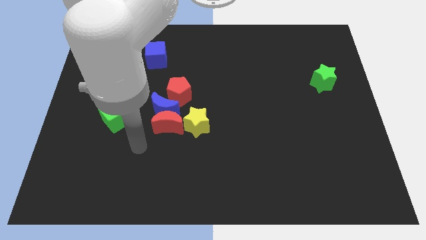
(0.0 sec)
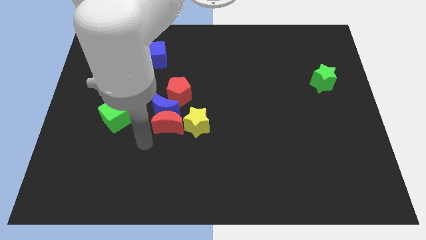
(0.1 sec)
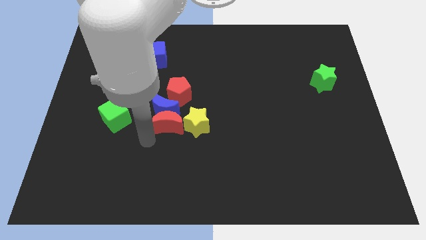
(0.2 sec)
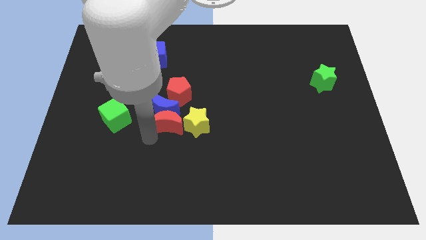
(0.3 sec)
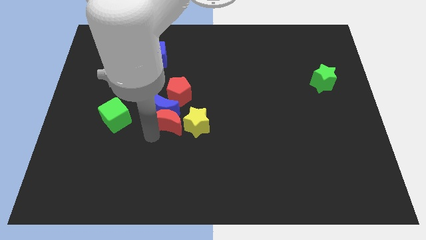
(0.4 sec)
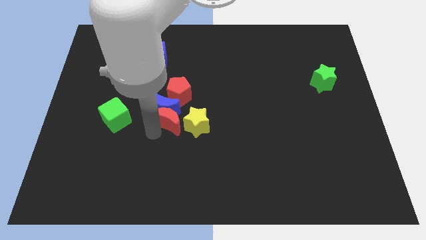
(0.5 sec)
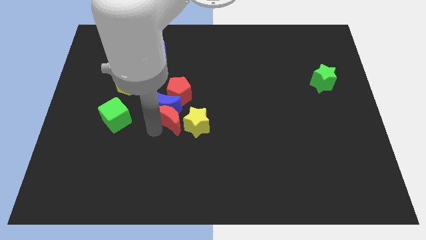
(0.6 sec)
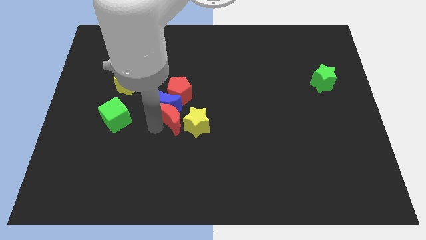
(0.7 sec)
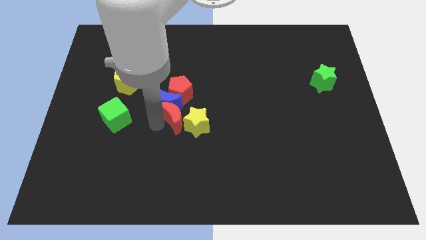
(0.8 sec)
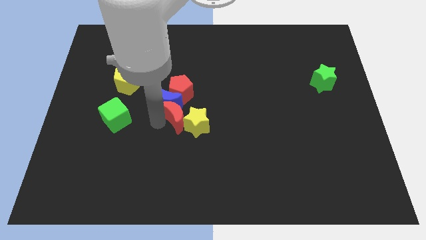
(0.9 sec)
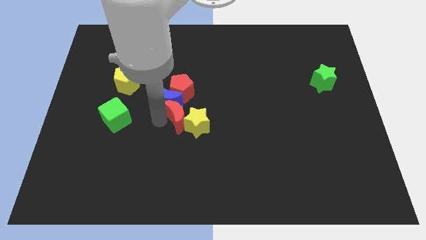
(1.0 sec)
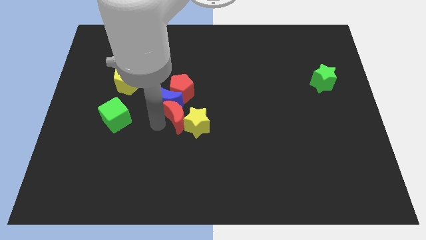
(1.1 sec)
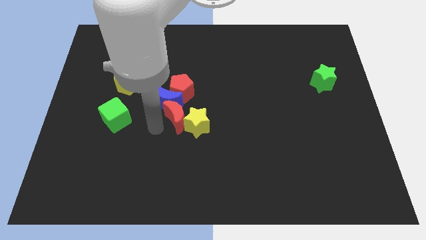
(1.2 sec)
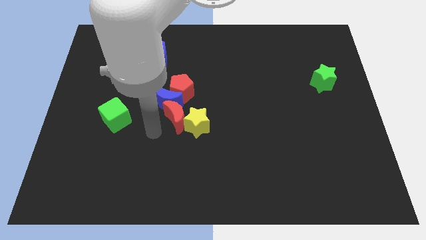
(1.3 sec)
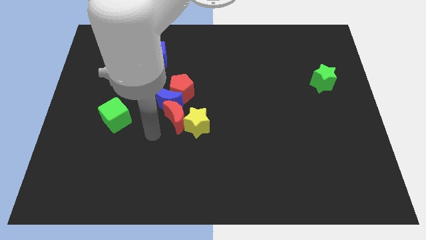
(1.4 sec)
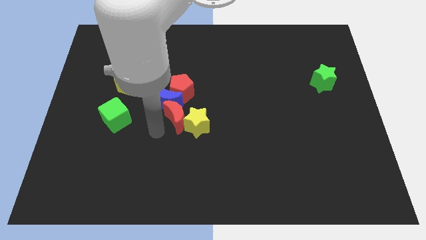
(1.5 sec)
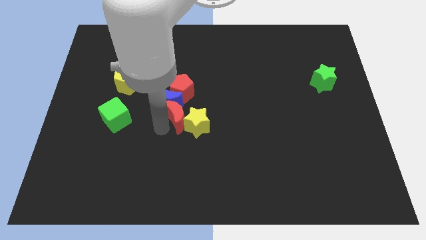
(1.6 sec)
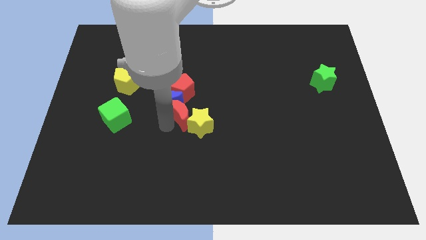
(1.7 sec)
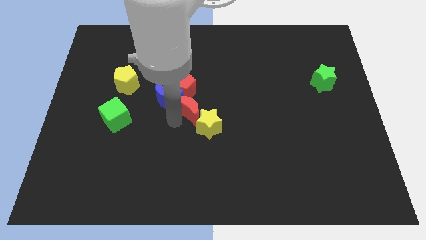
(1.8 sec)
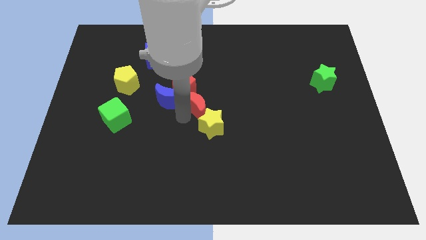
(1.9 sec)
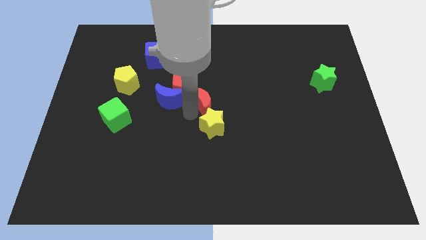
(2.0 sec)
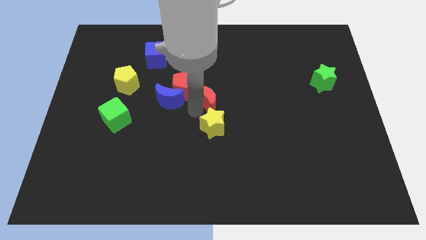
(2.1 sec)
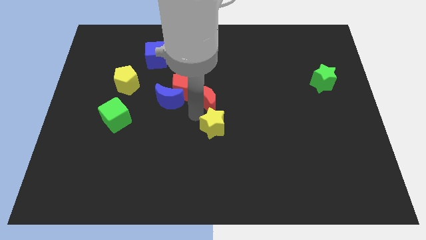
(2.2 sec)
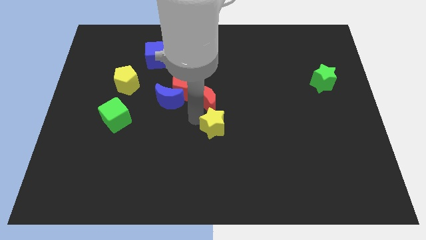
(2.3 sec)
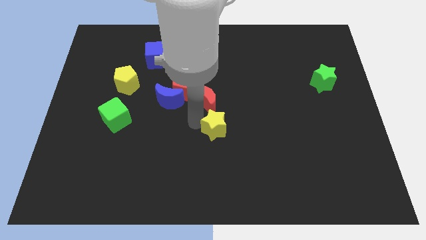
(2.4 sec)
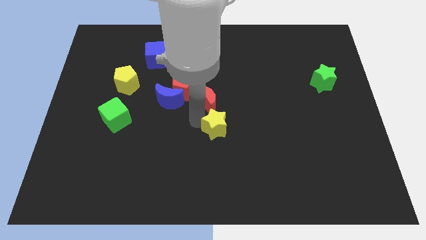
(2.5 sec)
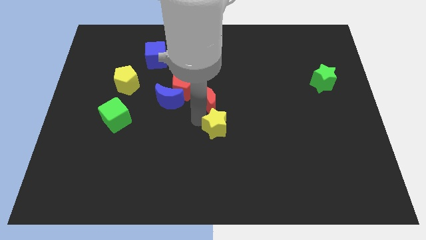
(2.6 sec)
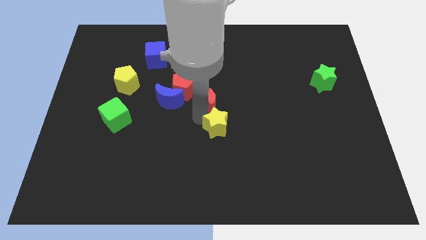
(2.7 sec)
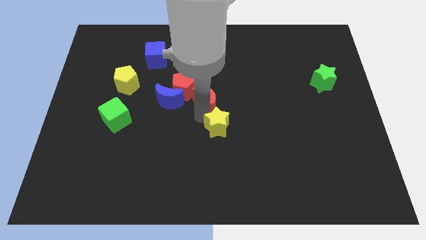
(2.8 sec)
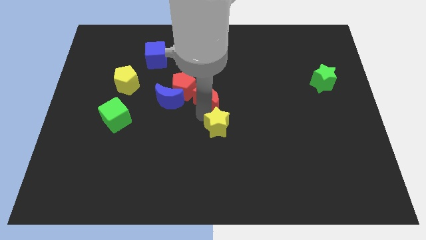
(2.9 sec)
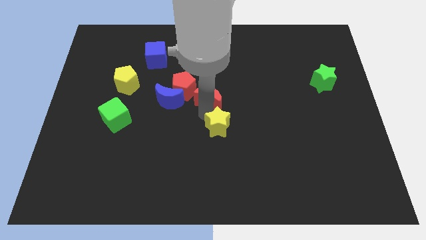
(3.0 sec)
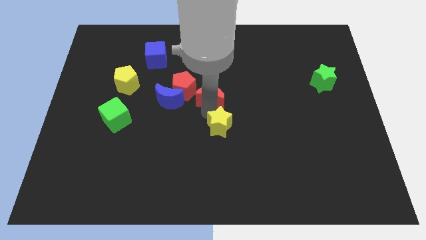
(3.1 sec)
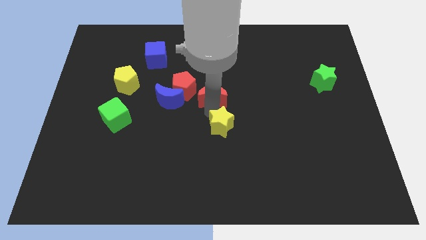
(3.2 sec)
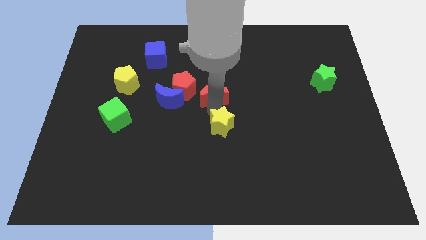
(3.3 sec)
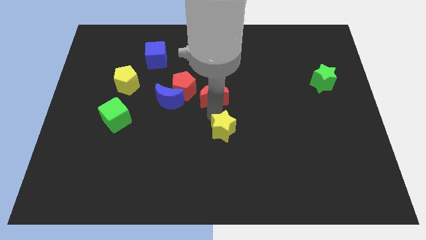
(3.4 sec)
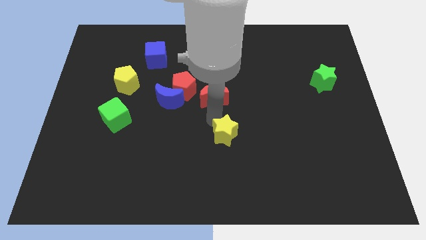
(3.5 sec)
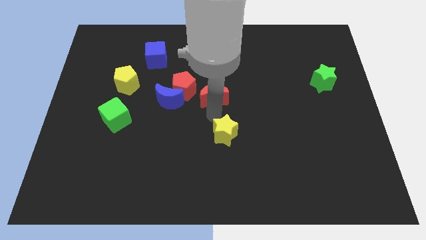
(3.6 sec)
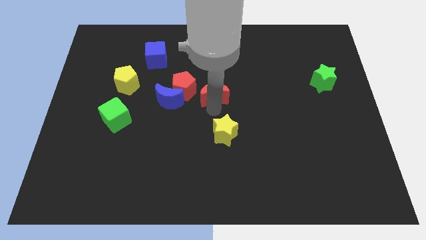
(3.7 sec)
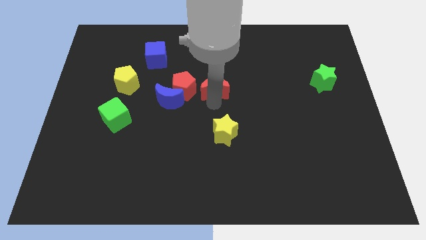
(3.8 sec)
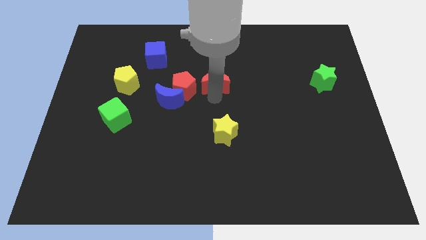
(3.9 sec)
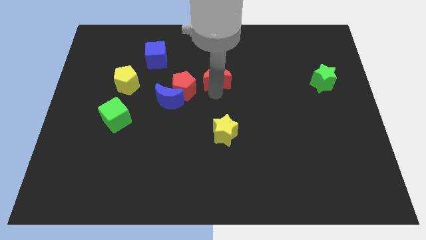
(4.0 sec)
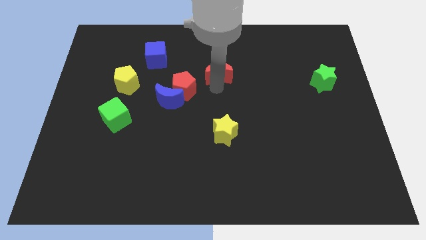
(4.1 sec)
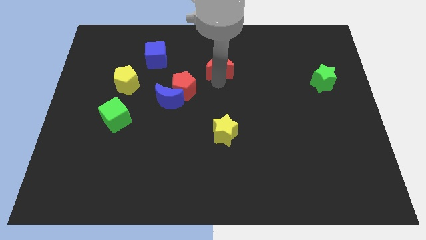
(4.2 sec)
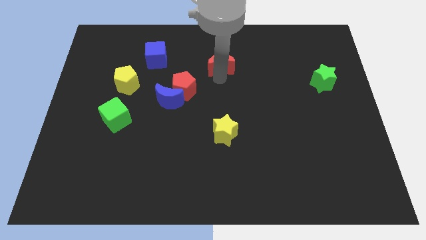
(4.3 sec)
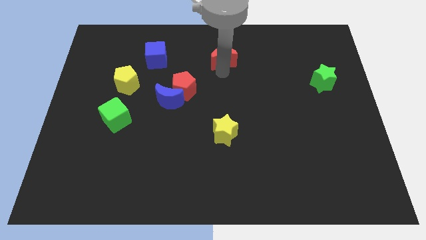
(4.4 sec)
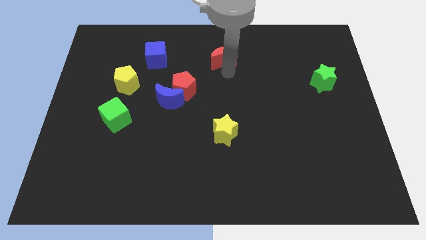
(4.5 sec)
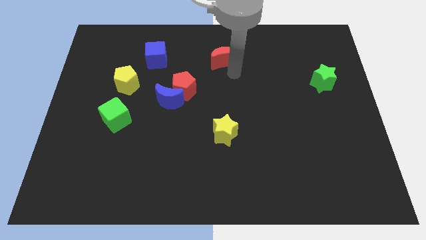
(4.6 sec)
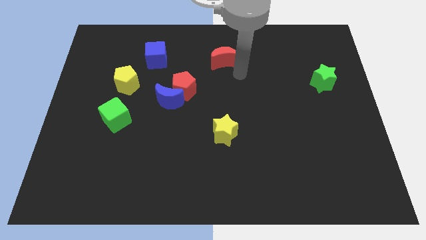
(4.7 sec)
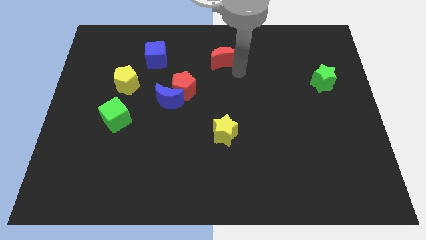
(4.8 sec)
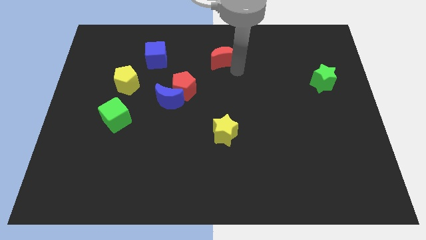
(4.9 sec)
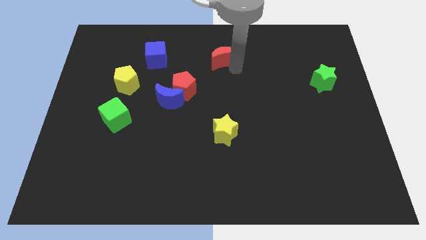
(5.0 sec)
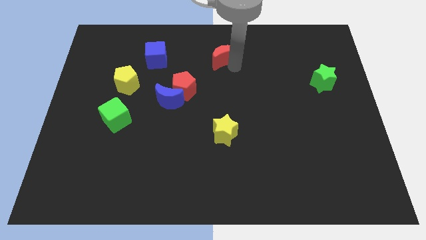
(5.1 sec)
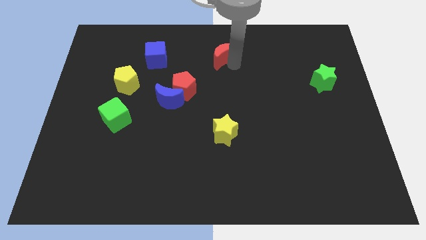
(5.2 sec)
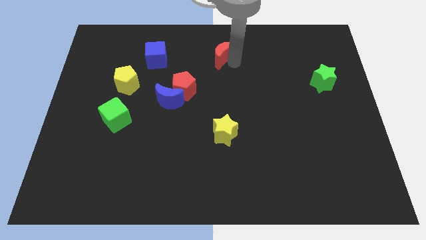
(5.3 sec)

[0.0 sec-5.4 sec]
move the red moon to the towards your base

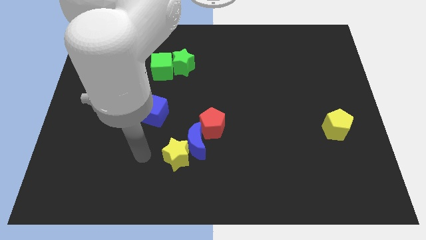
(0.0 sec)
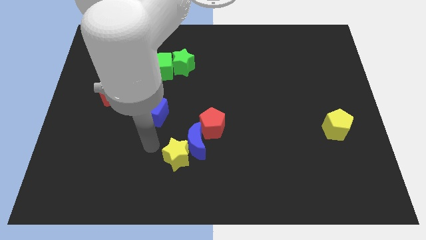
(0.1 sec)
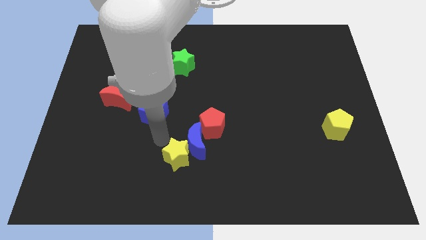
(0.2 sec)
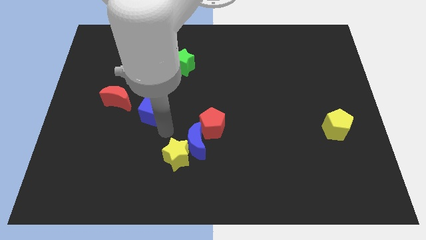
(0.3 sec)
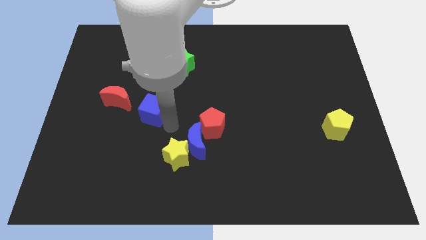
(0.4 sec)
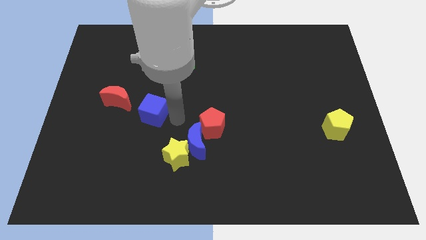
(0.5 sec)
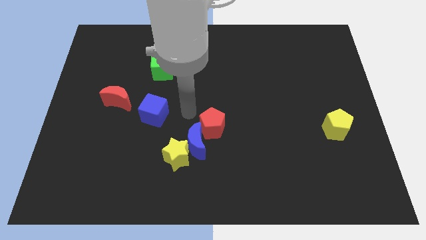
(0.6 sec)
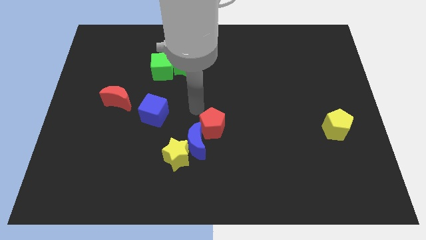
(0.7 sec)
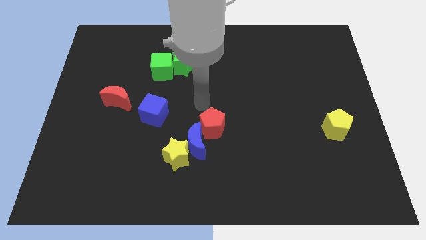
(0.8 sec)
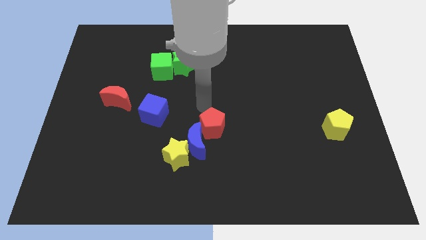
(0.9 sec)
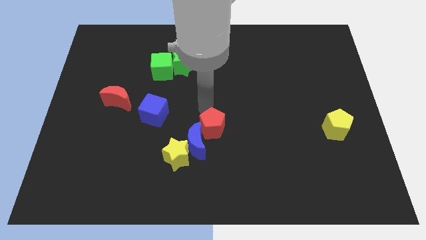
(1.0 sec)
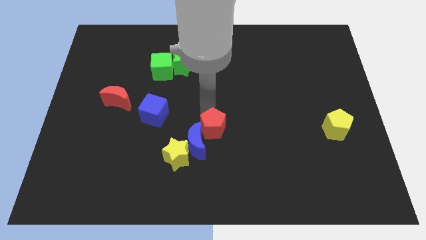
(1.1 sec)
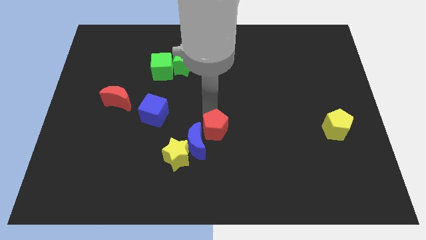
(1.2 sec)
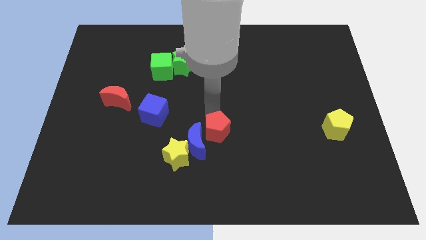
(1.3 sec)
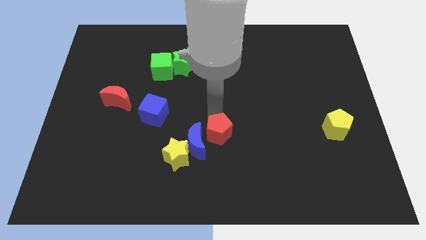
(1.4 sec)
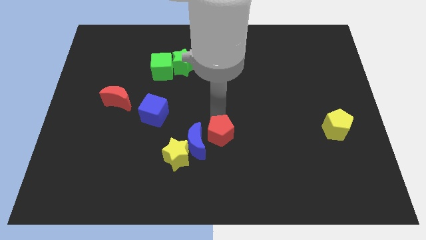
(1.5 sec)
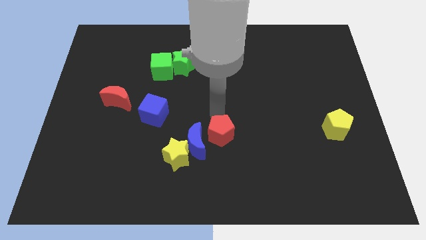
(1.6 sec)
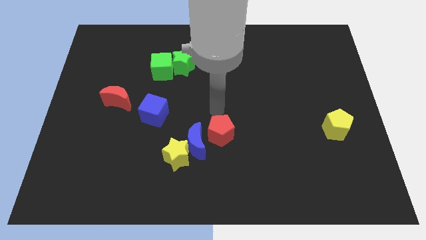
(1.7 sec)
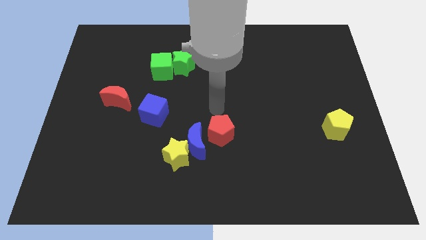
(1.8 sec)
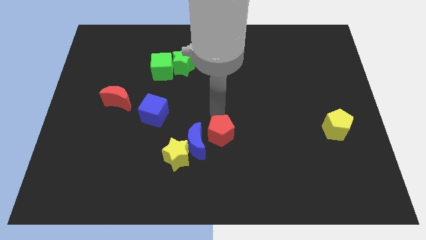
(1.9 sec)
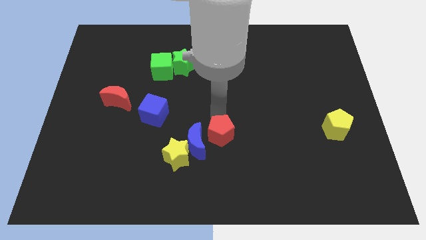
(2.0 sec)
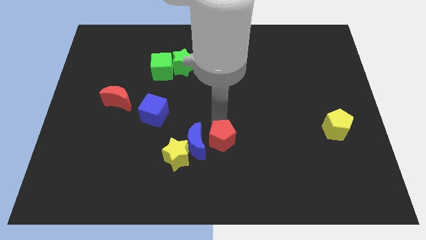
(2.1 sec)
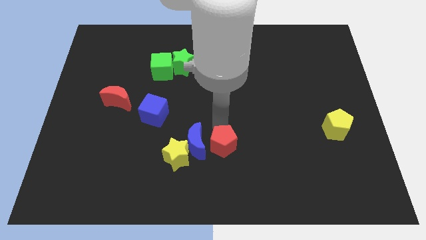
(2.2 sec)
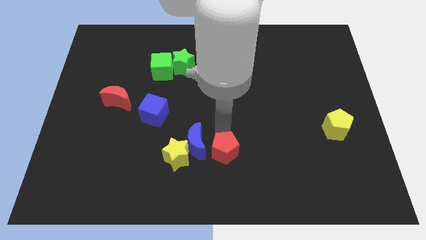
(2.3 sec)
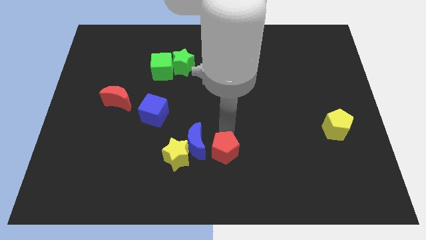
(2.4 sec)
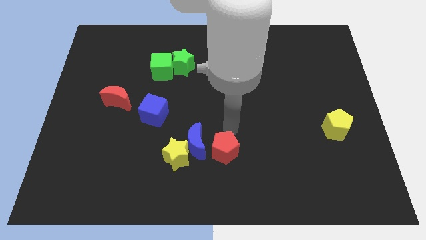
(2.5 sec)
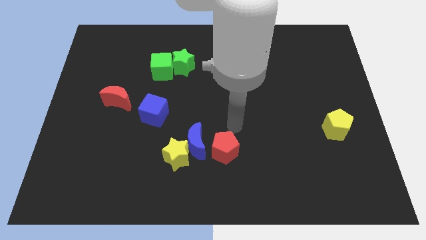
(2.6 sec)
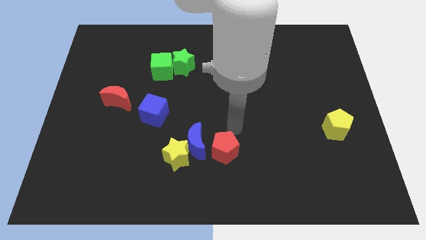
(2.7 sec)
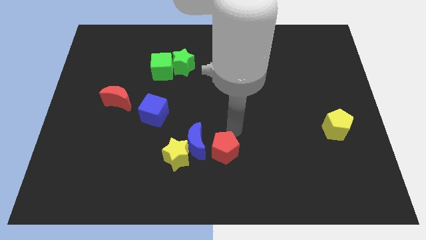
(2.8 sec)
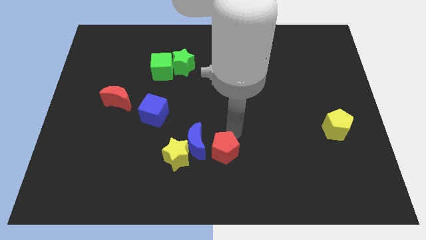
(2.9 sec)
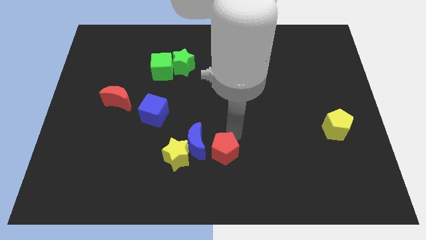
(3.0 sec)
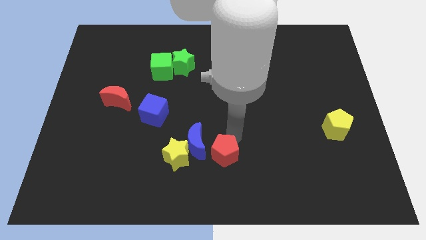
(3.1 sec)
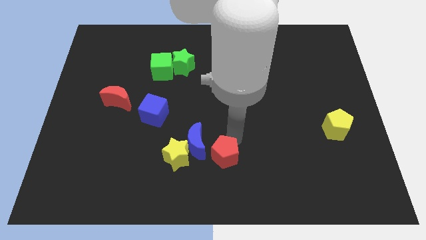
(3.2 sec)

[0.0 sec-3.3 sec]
push the red pentagon to the bottom
